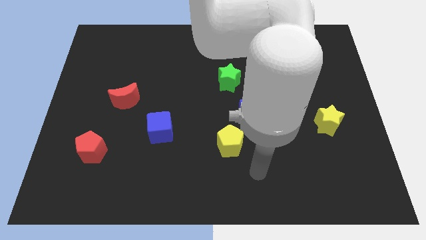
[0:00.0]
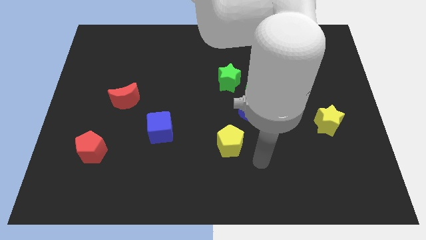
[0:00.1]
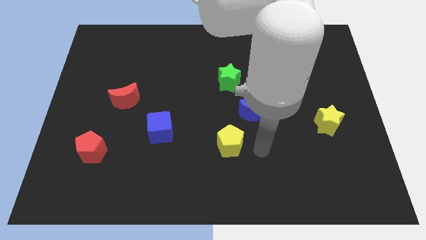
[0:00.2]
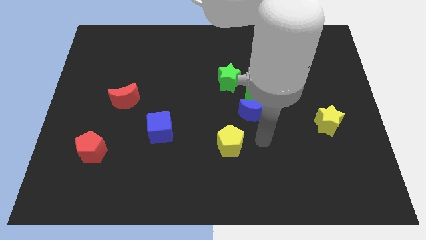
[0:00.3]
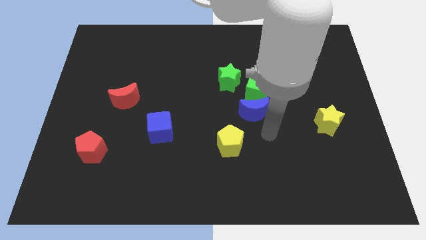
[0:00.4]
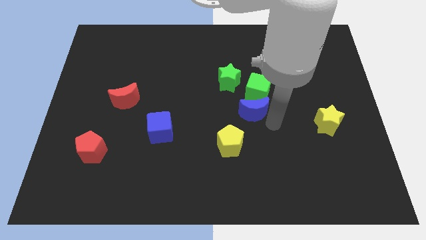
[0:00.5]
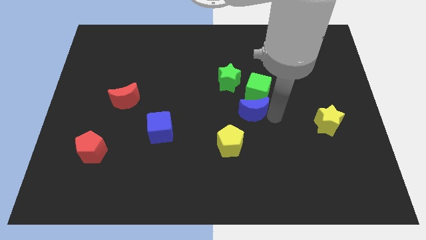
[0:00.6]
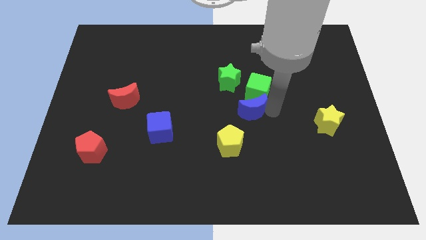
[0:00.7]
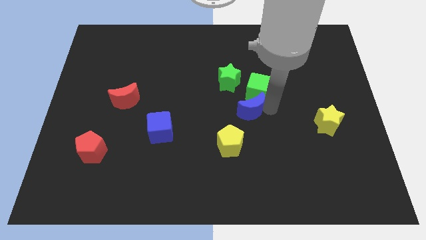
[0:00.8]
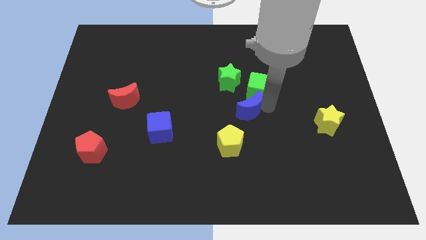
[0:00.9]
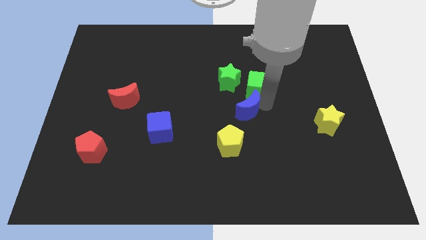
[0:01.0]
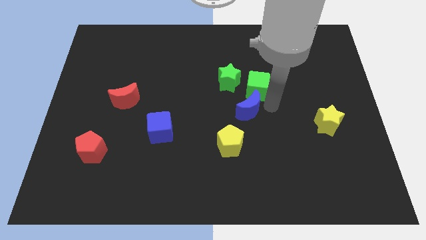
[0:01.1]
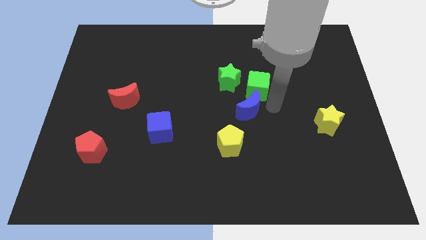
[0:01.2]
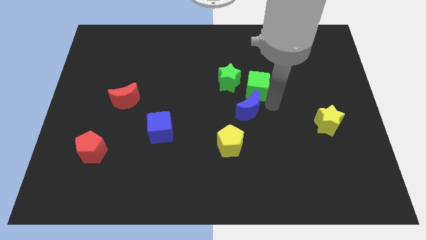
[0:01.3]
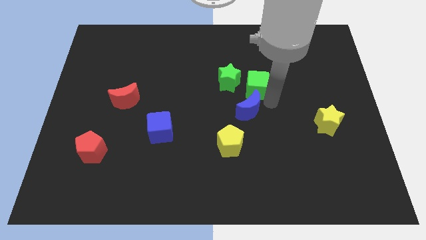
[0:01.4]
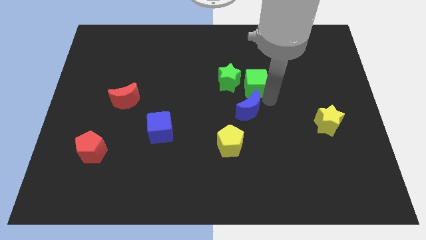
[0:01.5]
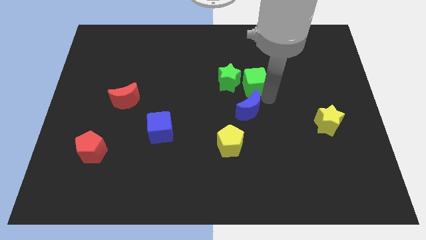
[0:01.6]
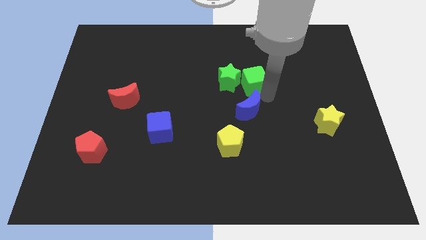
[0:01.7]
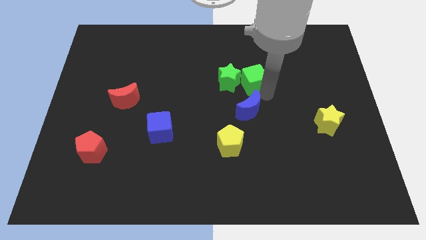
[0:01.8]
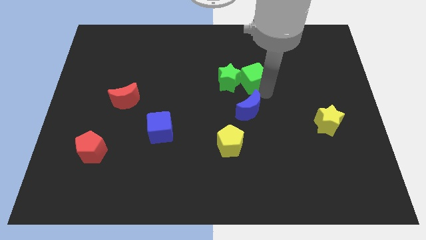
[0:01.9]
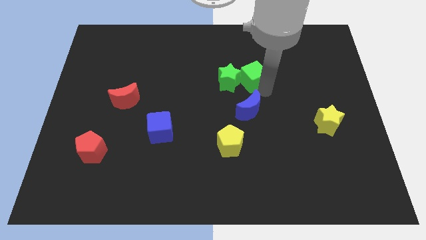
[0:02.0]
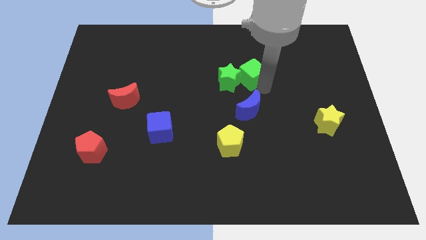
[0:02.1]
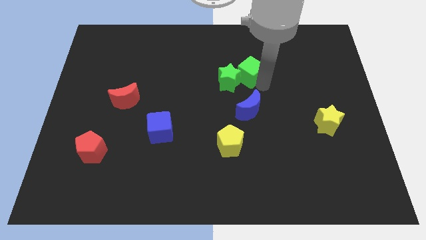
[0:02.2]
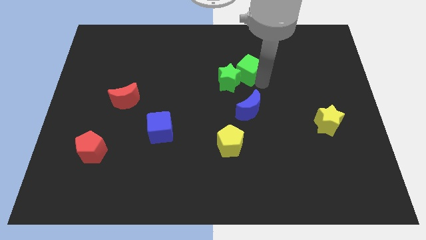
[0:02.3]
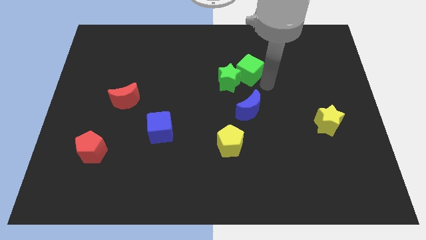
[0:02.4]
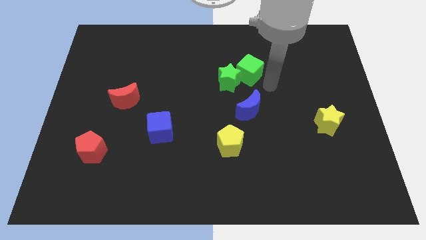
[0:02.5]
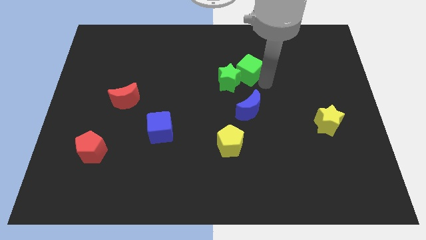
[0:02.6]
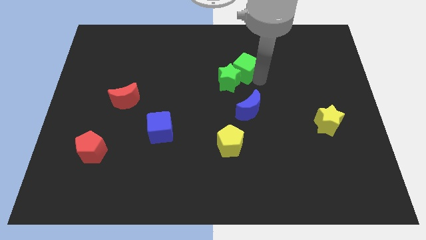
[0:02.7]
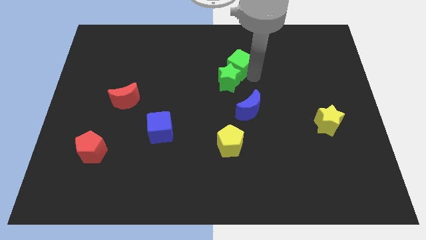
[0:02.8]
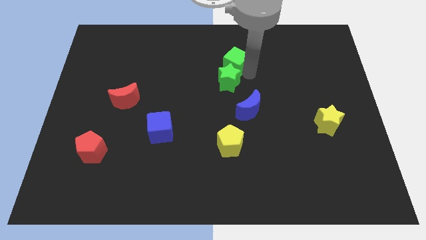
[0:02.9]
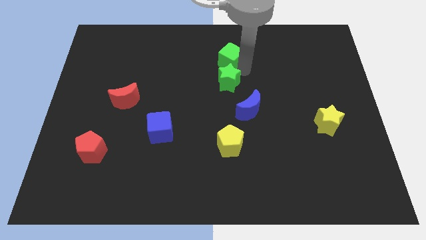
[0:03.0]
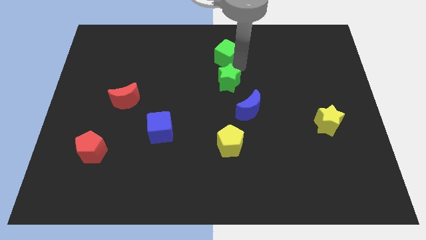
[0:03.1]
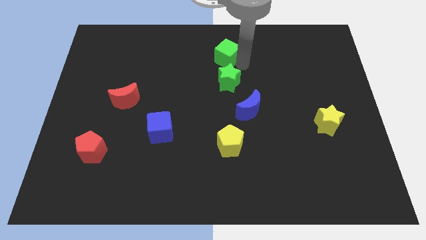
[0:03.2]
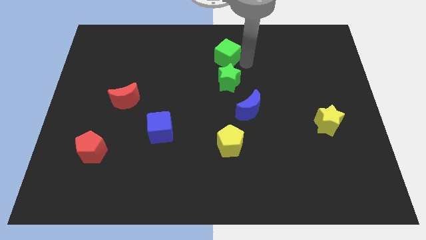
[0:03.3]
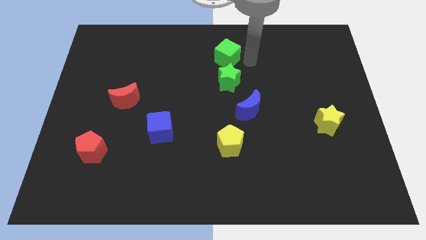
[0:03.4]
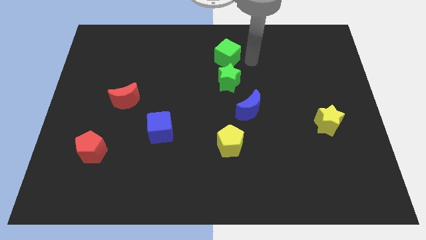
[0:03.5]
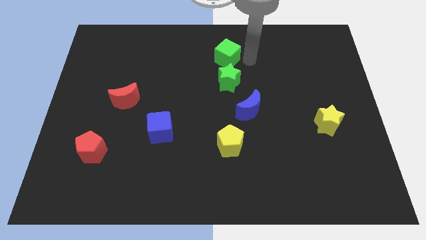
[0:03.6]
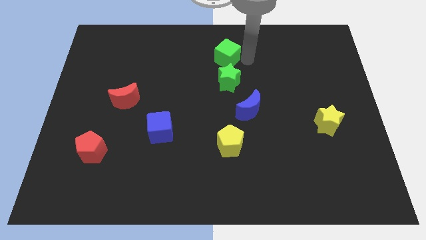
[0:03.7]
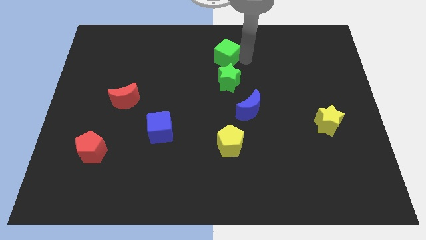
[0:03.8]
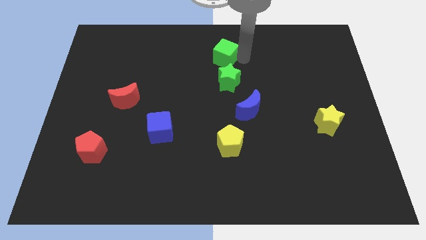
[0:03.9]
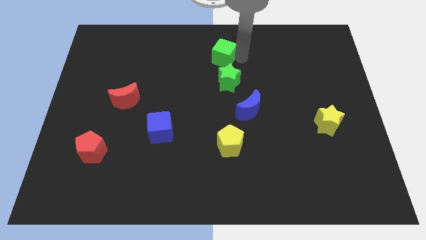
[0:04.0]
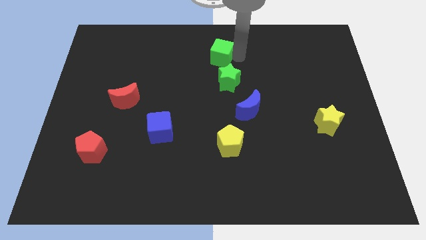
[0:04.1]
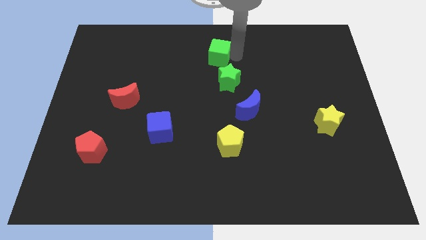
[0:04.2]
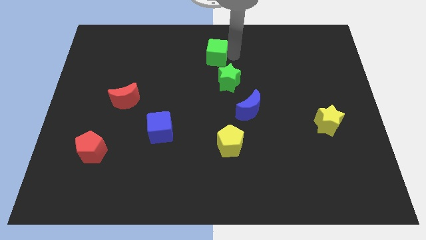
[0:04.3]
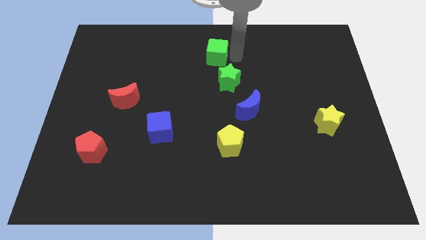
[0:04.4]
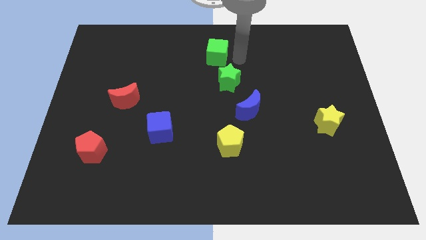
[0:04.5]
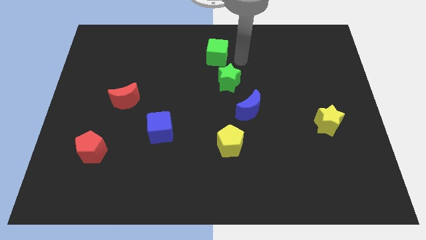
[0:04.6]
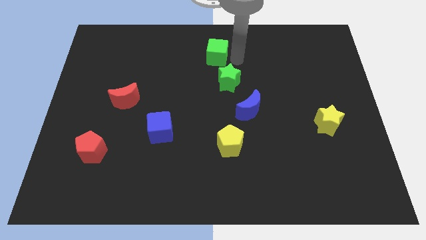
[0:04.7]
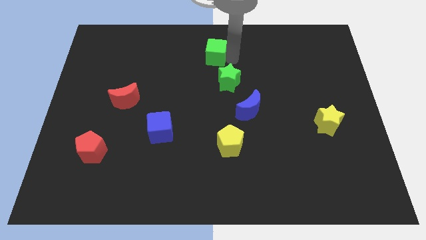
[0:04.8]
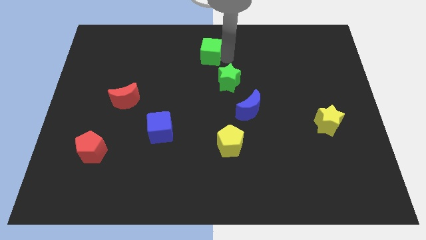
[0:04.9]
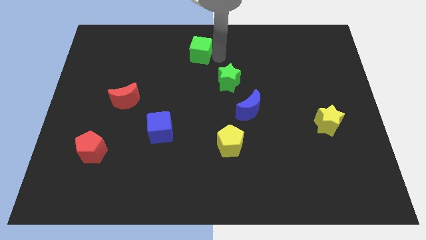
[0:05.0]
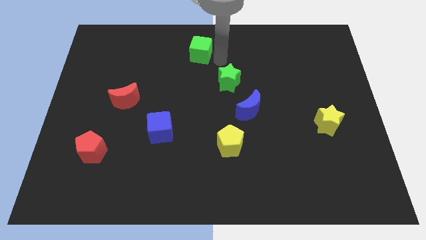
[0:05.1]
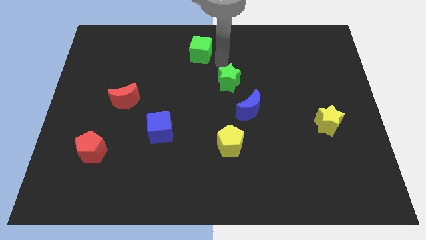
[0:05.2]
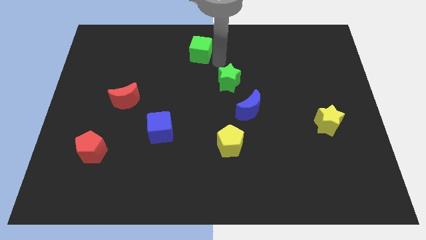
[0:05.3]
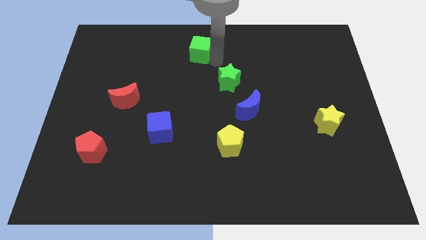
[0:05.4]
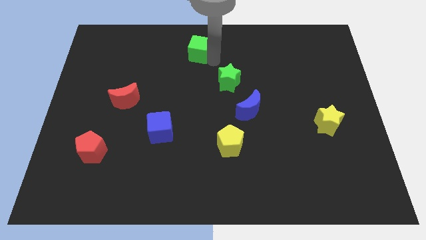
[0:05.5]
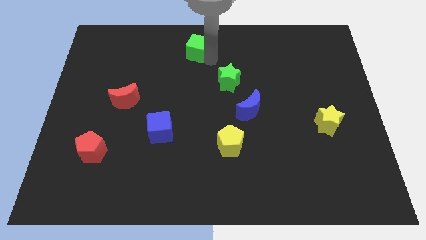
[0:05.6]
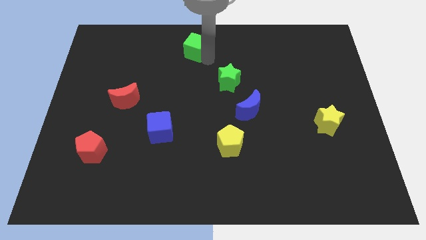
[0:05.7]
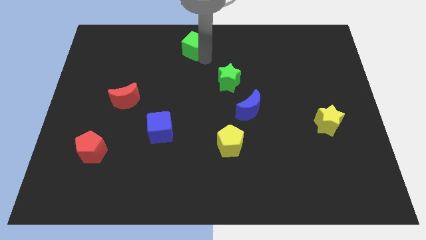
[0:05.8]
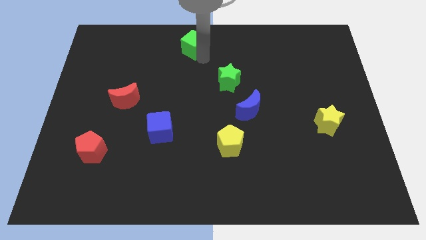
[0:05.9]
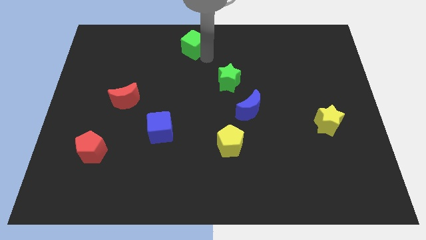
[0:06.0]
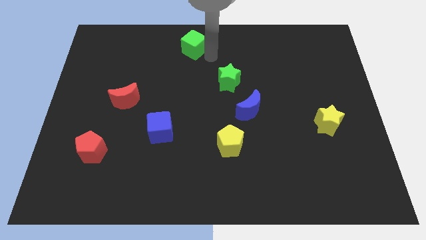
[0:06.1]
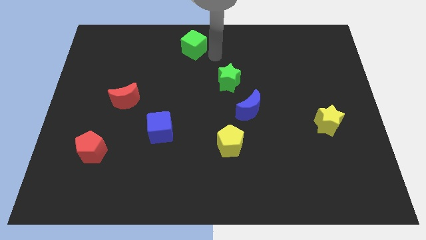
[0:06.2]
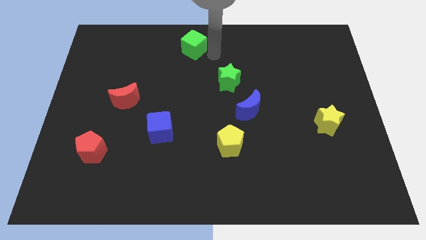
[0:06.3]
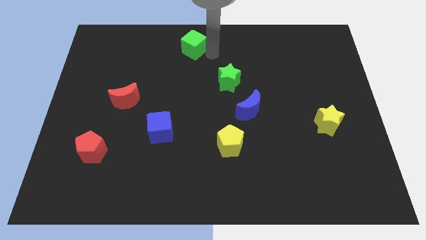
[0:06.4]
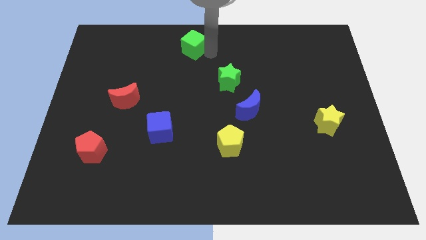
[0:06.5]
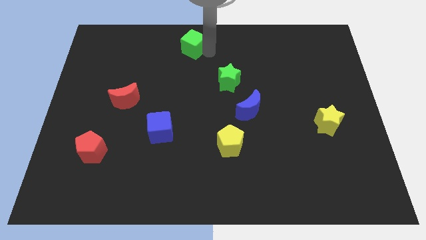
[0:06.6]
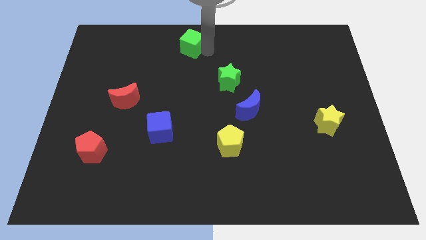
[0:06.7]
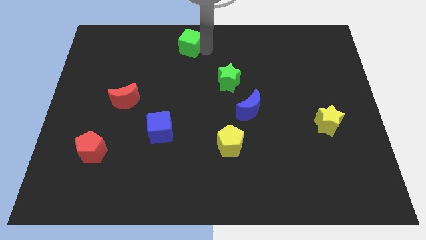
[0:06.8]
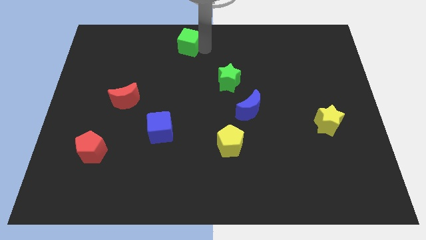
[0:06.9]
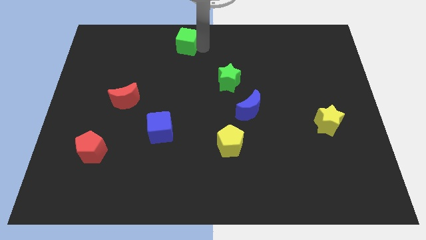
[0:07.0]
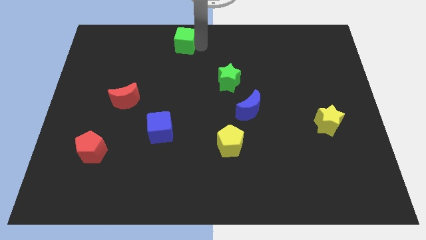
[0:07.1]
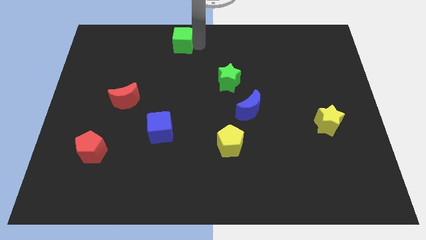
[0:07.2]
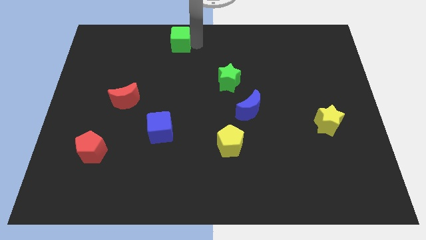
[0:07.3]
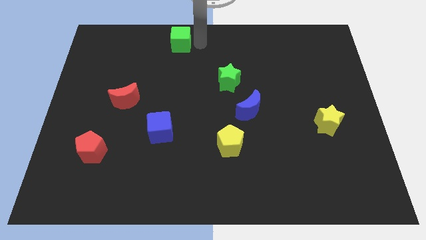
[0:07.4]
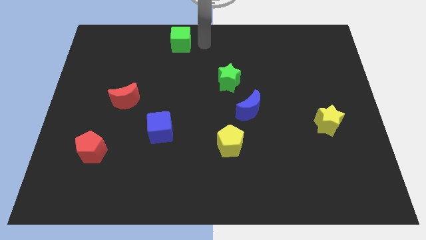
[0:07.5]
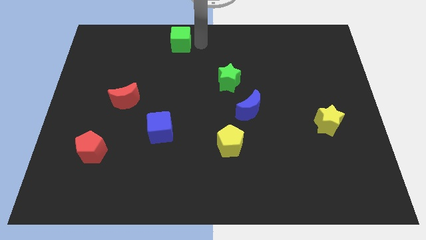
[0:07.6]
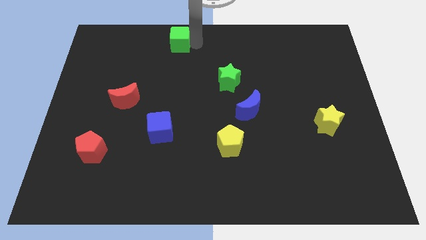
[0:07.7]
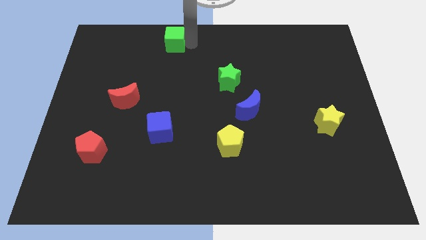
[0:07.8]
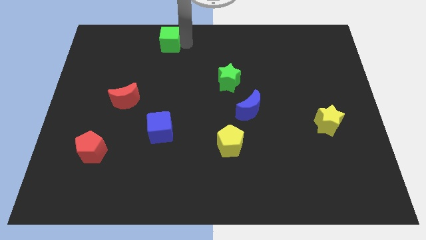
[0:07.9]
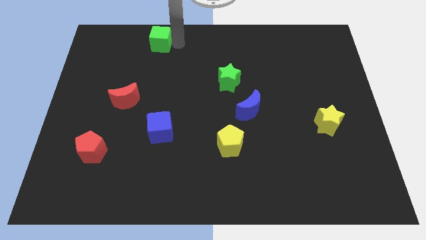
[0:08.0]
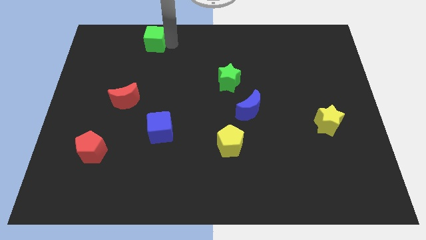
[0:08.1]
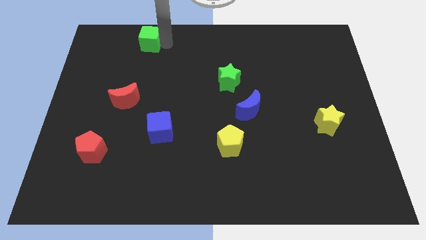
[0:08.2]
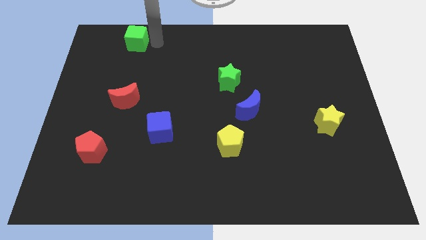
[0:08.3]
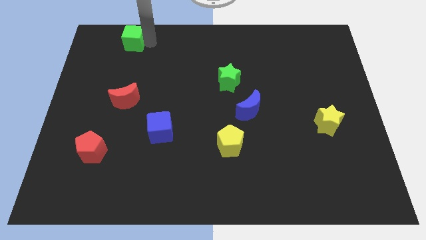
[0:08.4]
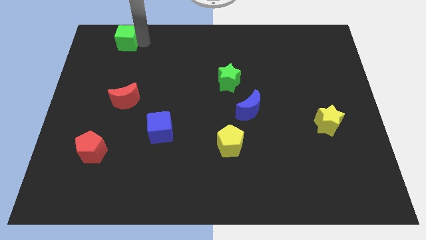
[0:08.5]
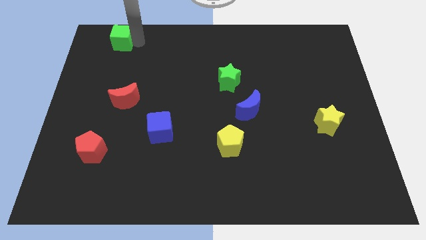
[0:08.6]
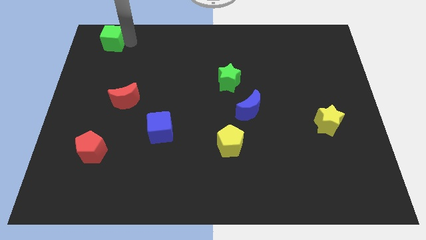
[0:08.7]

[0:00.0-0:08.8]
move the green cube to the top left
